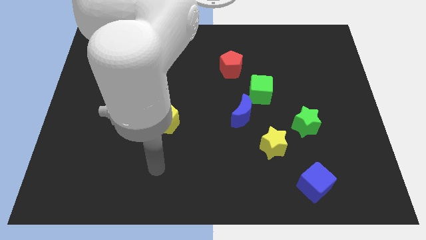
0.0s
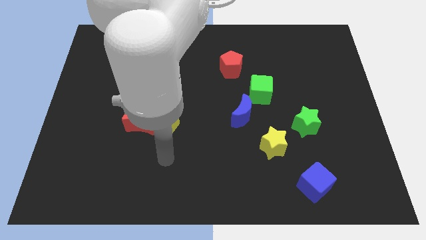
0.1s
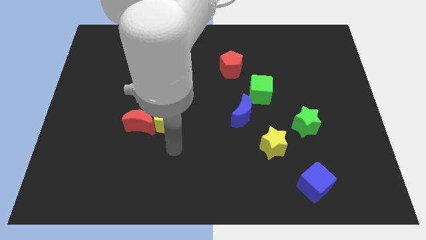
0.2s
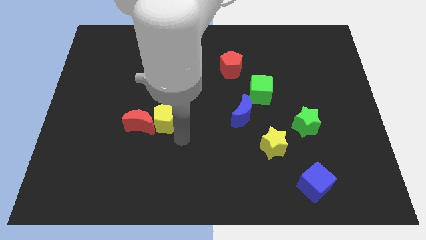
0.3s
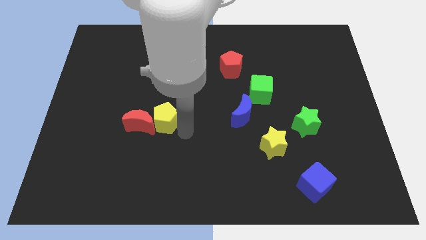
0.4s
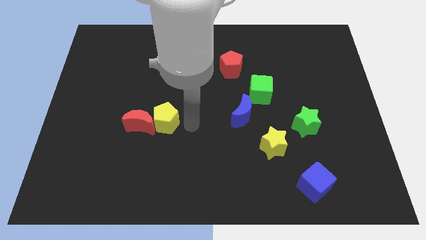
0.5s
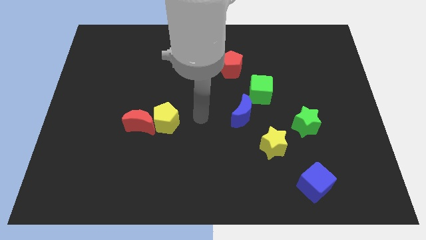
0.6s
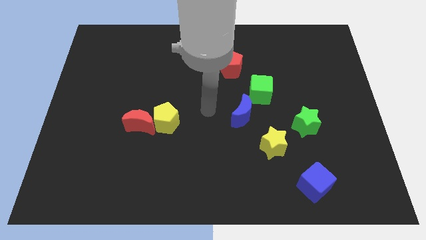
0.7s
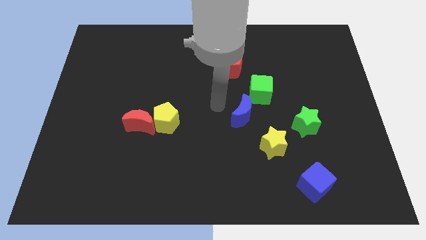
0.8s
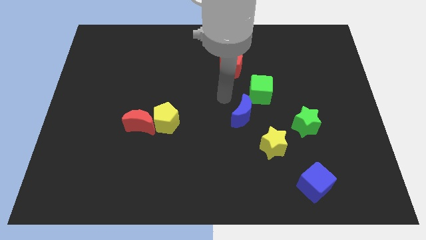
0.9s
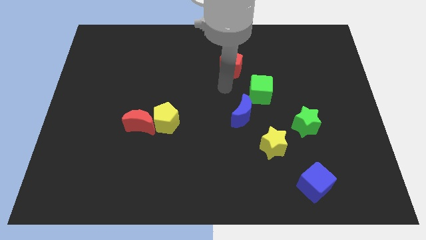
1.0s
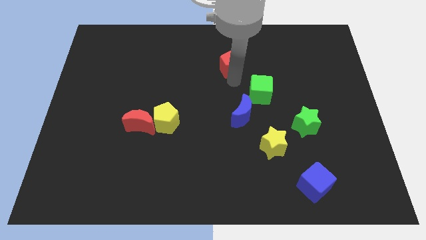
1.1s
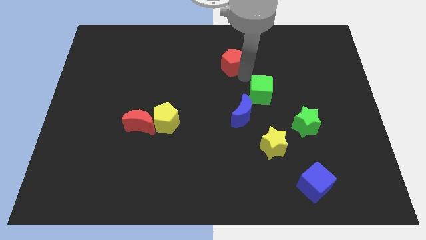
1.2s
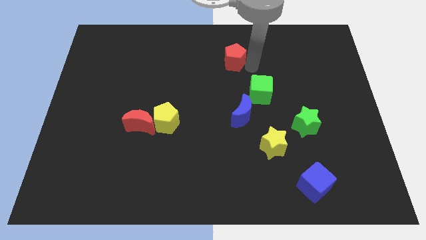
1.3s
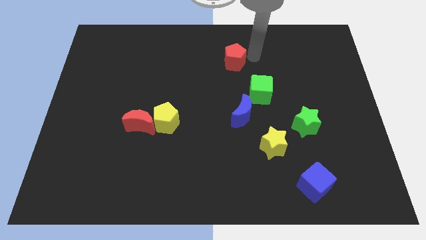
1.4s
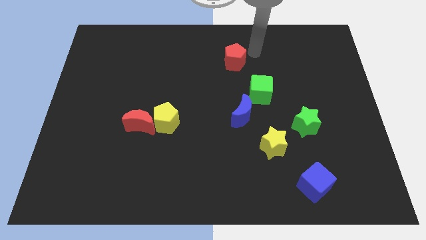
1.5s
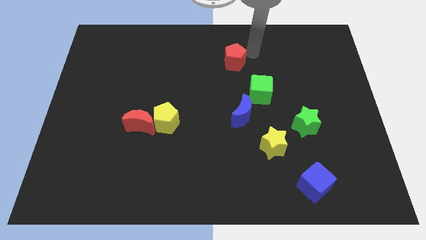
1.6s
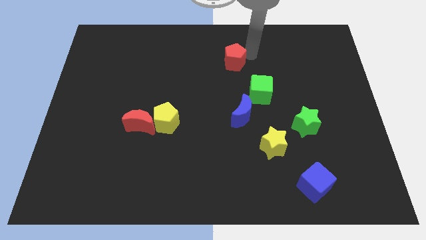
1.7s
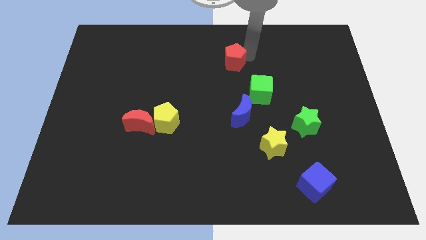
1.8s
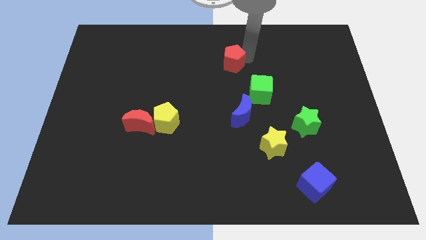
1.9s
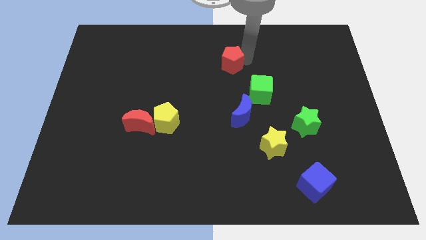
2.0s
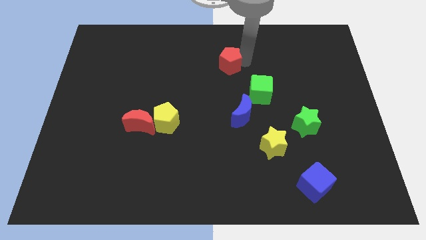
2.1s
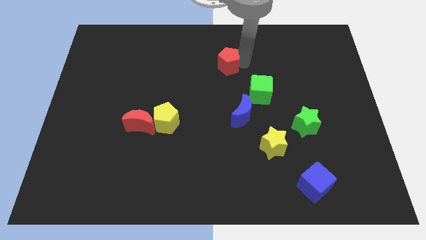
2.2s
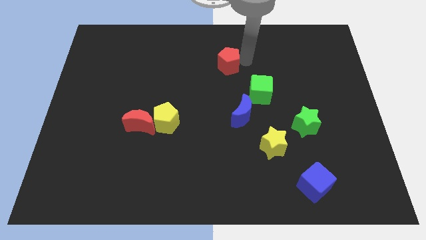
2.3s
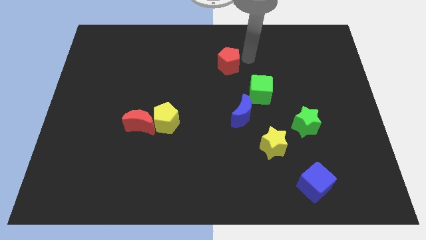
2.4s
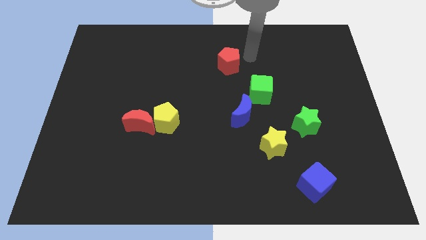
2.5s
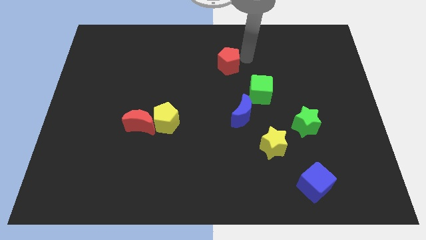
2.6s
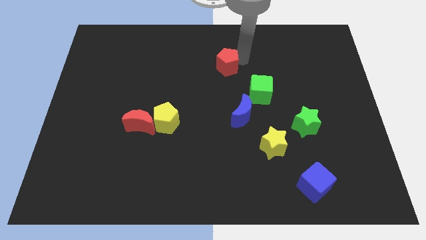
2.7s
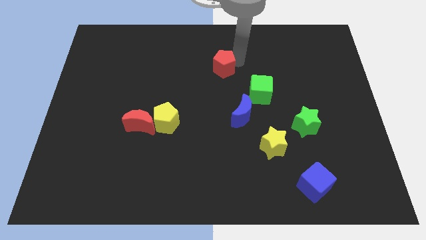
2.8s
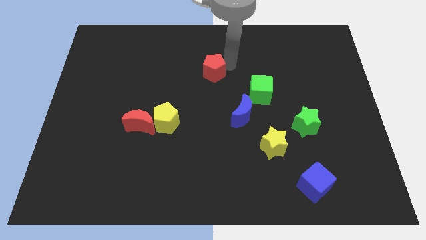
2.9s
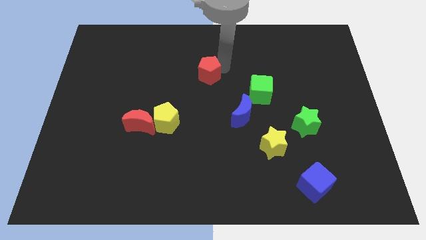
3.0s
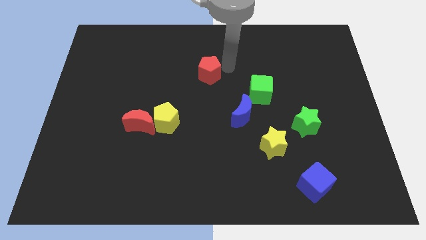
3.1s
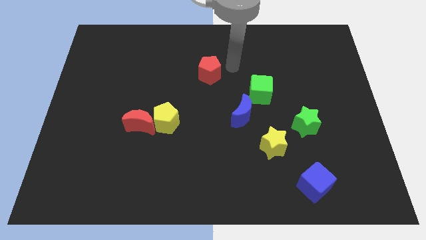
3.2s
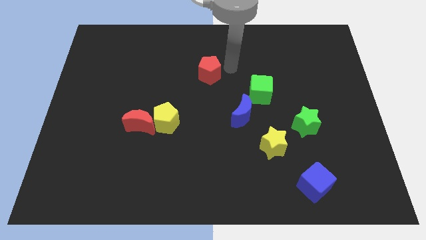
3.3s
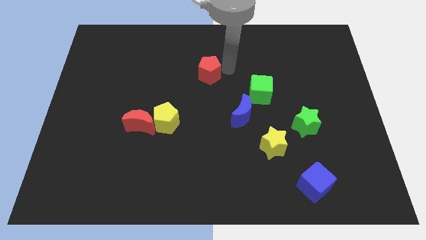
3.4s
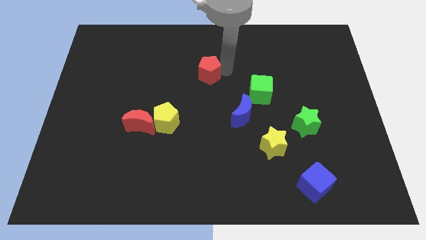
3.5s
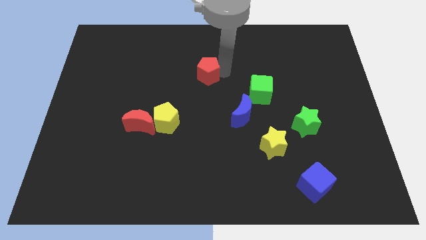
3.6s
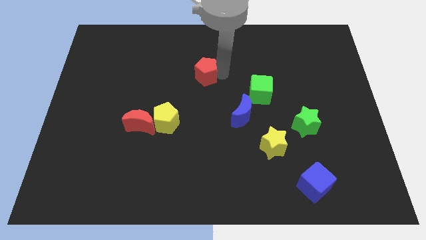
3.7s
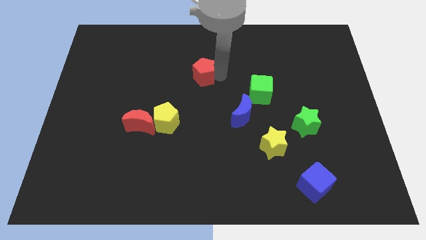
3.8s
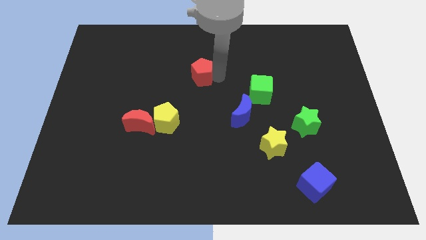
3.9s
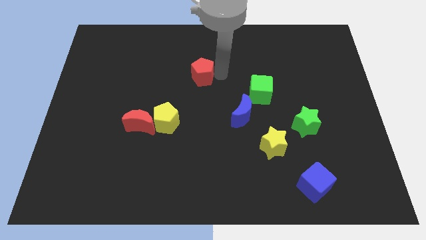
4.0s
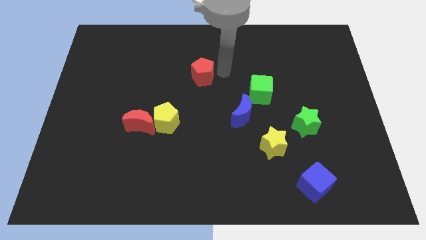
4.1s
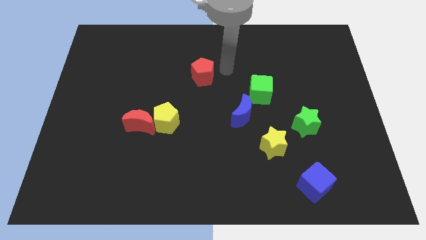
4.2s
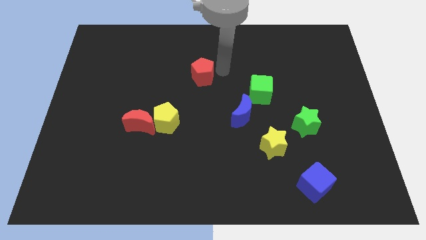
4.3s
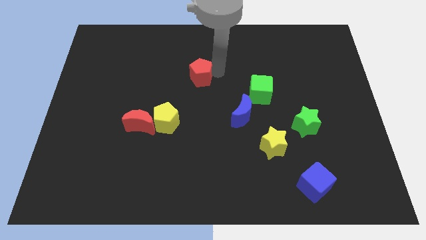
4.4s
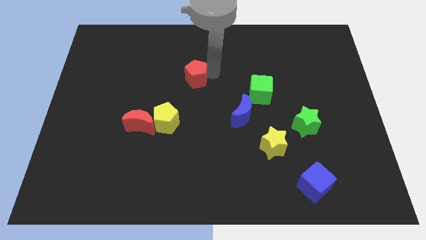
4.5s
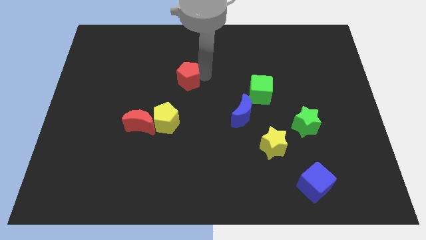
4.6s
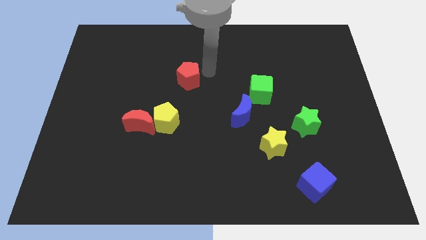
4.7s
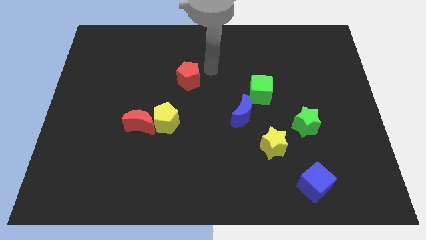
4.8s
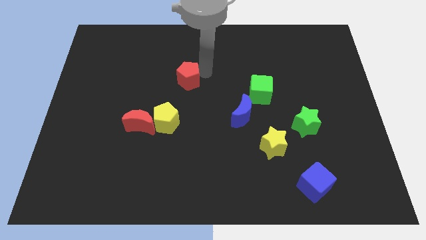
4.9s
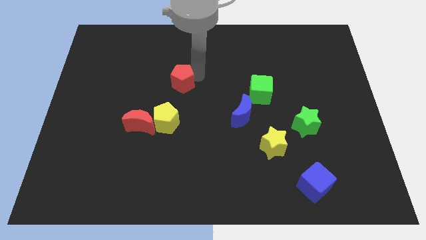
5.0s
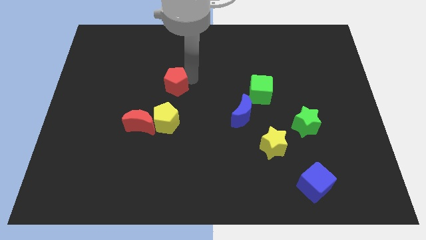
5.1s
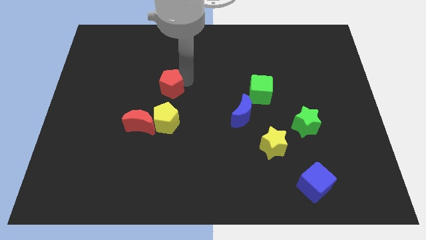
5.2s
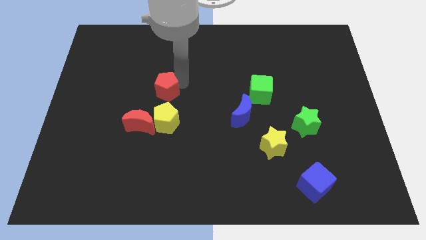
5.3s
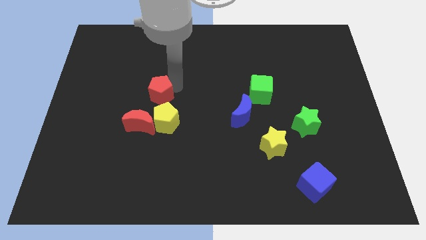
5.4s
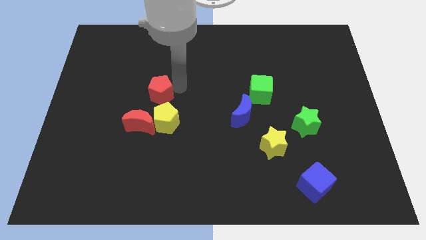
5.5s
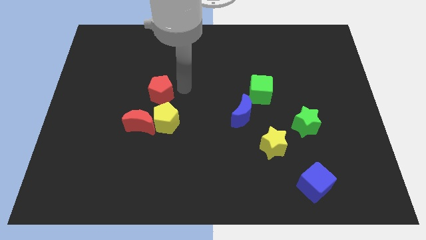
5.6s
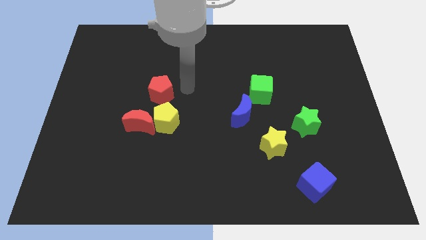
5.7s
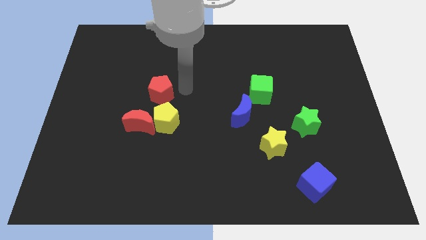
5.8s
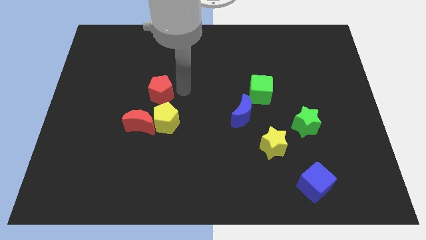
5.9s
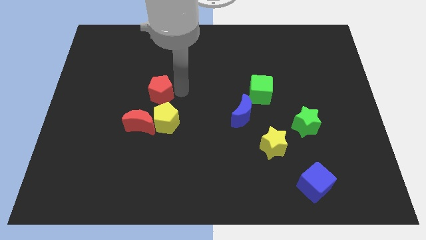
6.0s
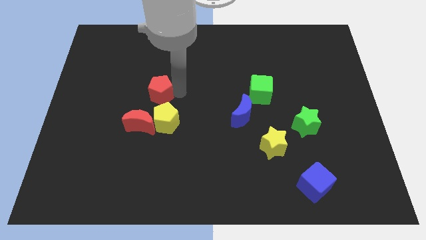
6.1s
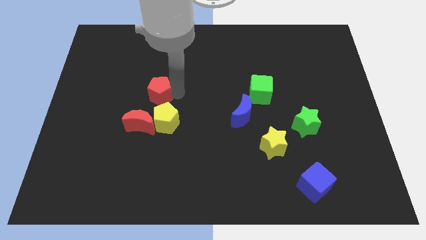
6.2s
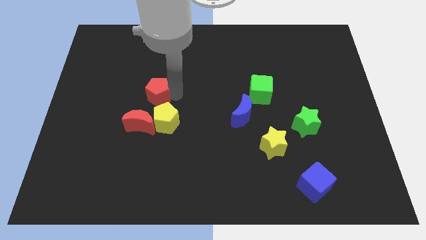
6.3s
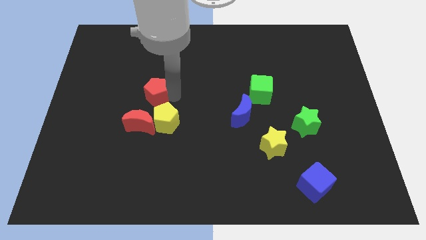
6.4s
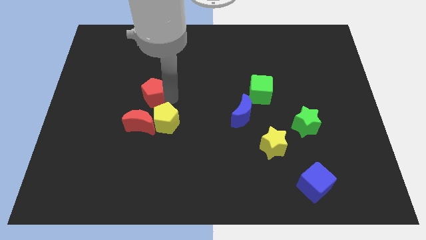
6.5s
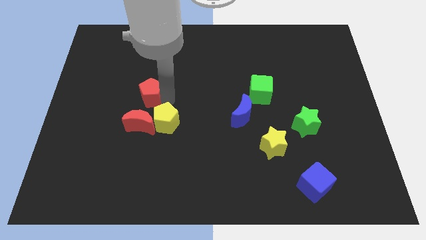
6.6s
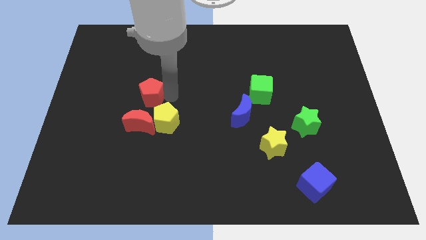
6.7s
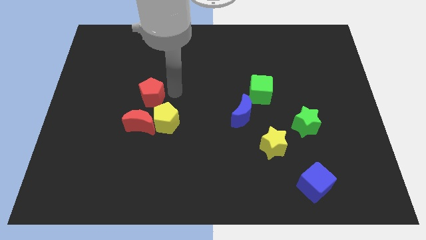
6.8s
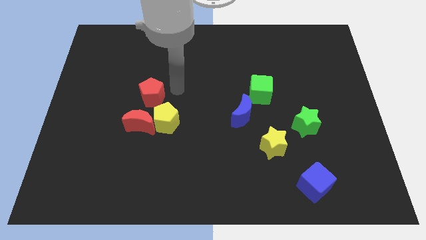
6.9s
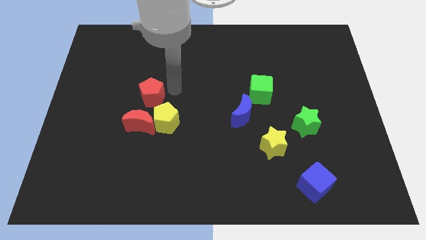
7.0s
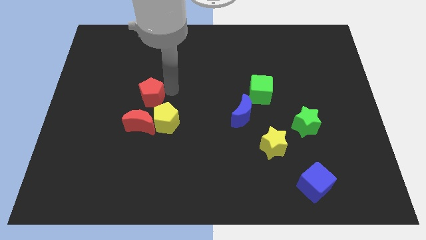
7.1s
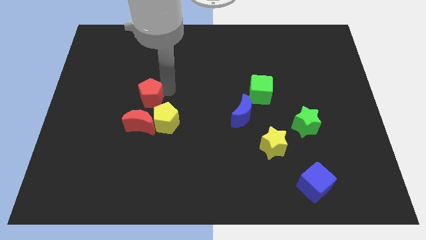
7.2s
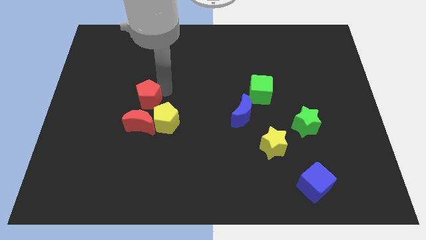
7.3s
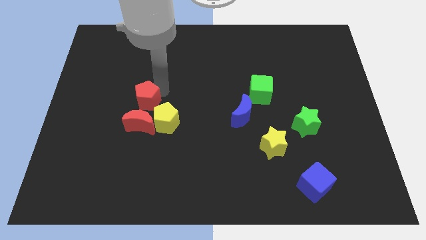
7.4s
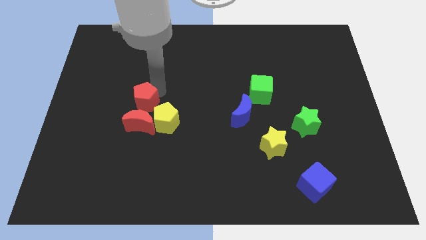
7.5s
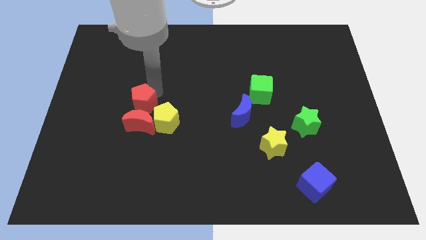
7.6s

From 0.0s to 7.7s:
move the red pentagon to the top left side of the red moon
